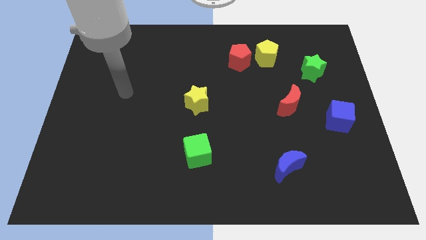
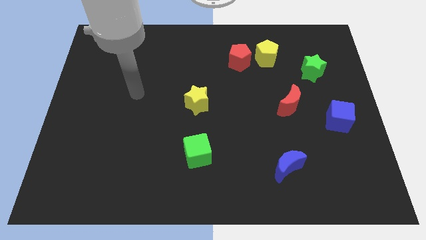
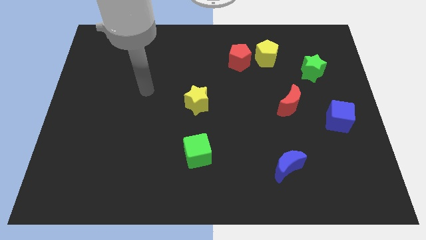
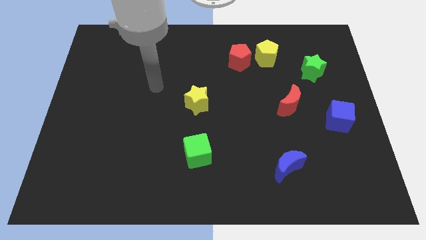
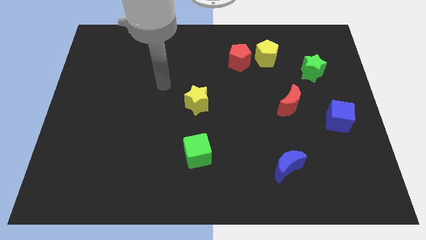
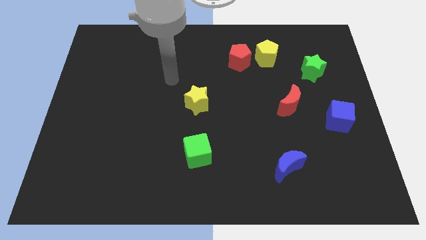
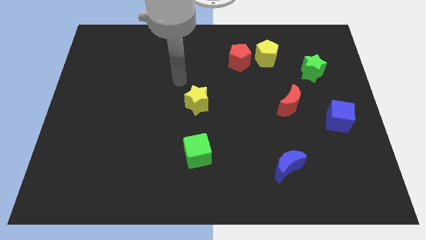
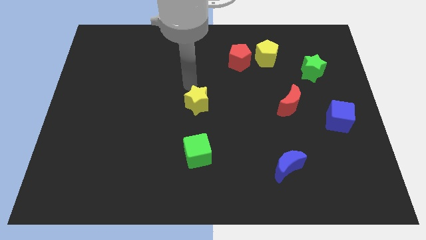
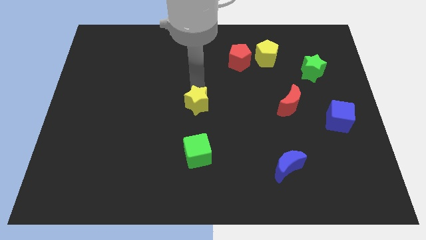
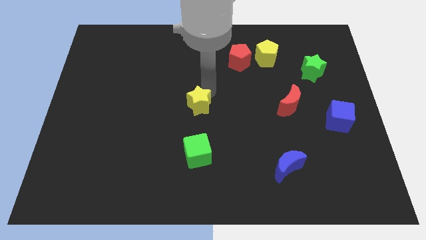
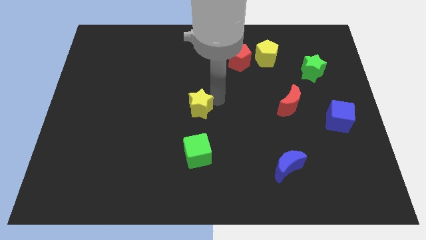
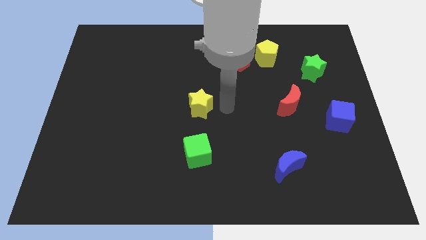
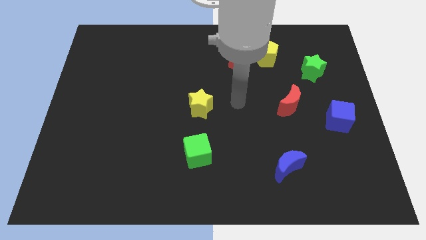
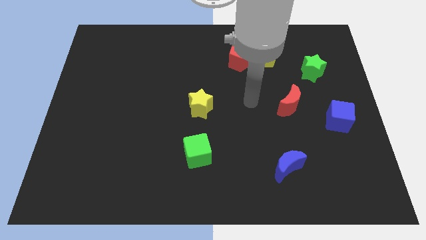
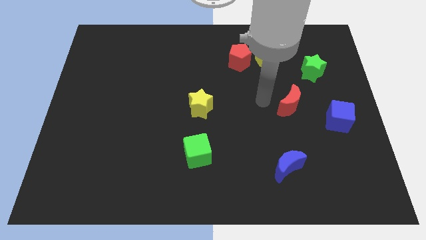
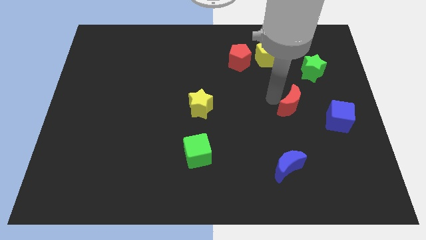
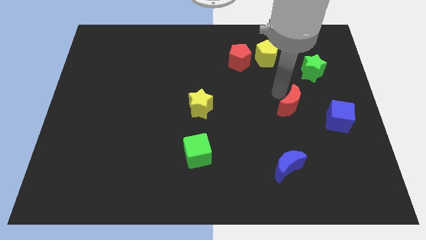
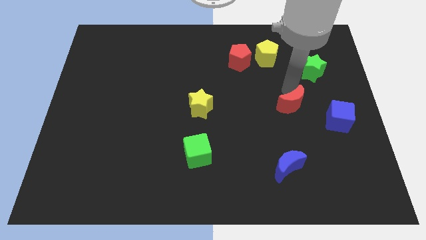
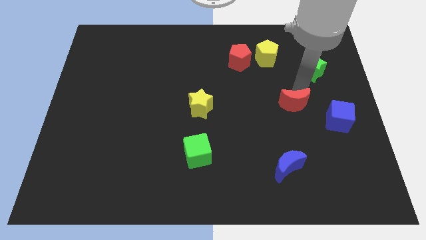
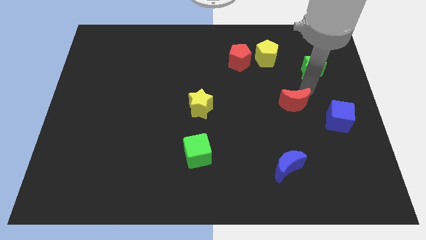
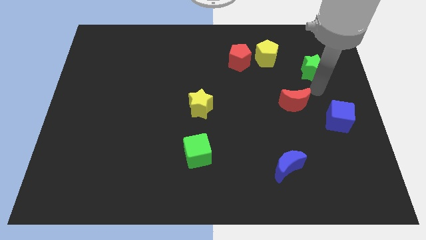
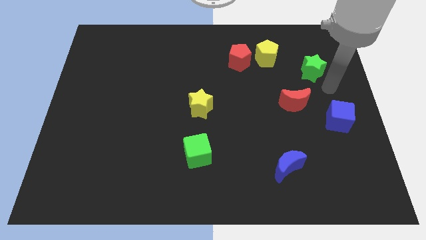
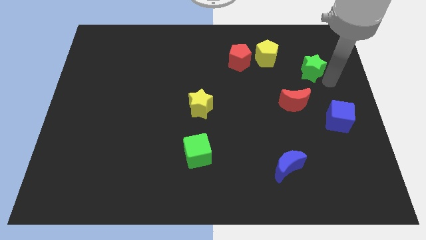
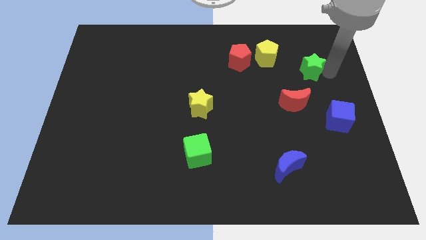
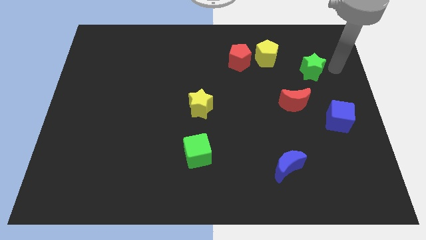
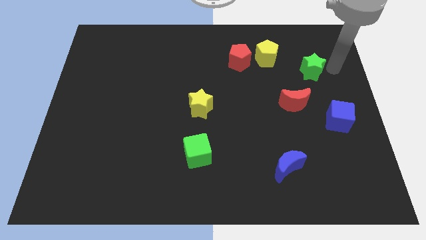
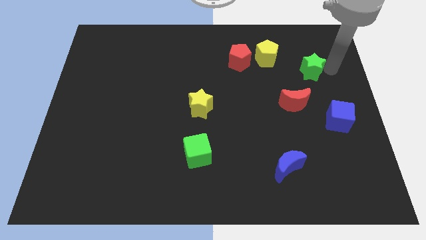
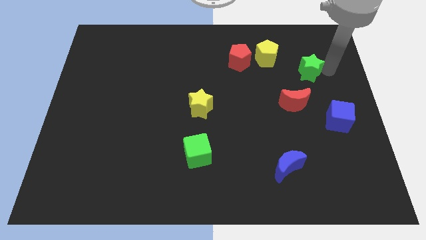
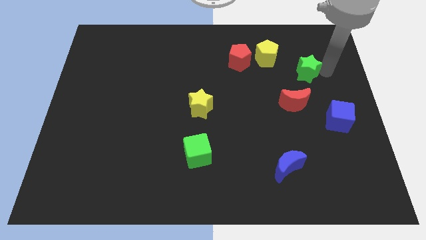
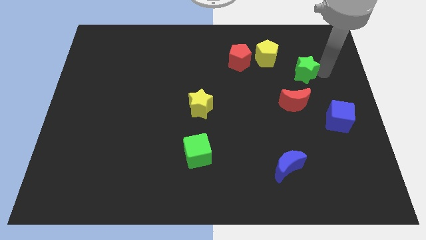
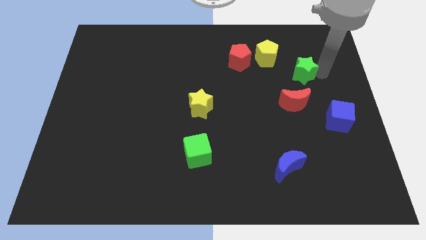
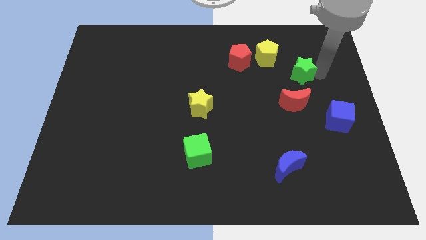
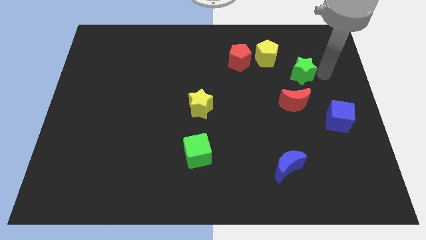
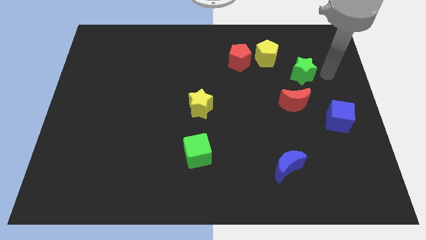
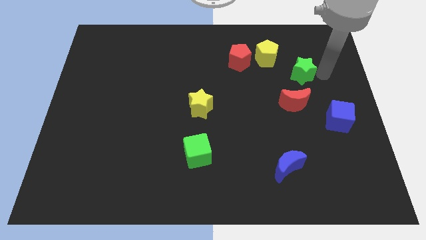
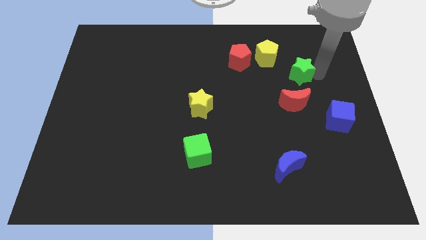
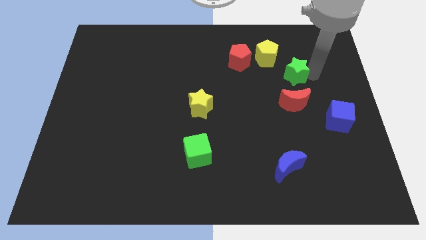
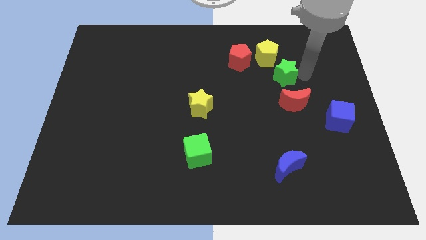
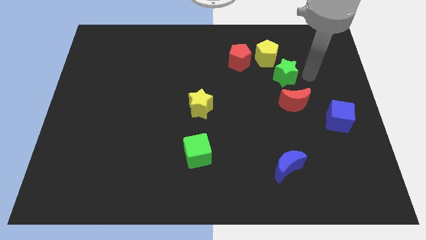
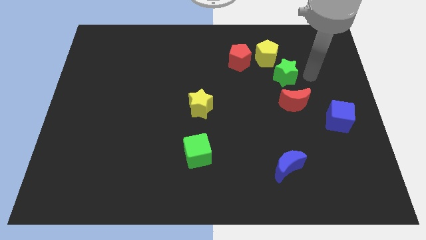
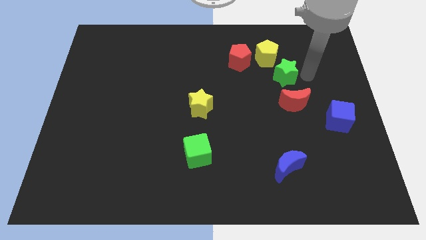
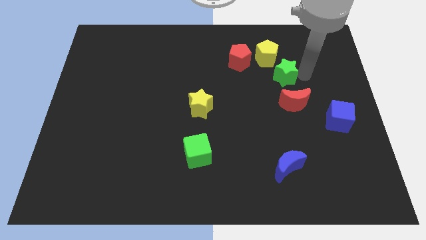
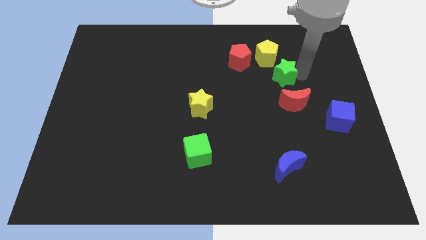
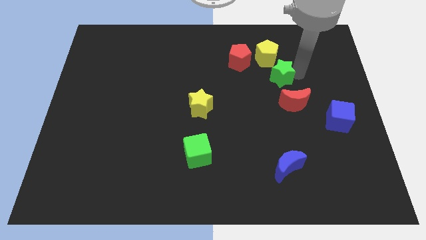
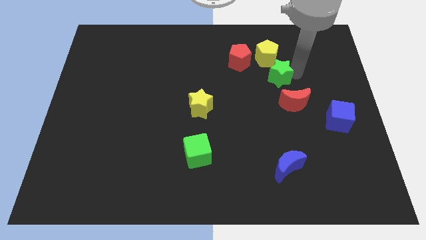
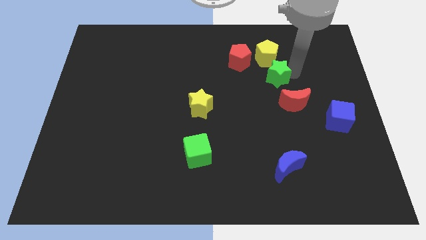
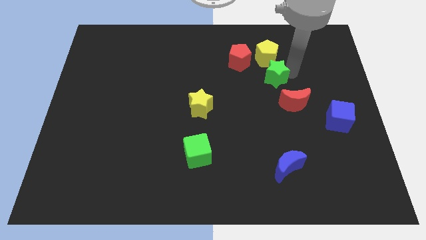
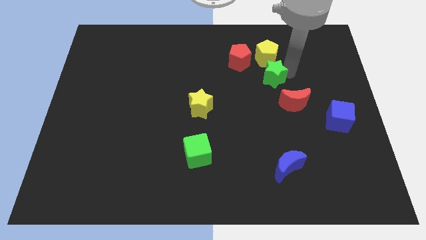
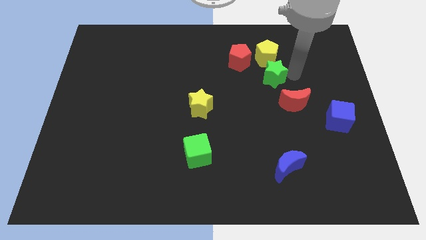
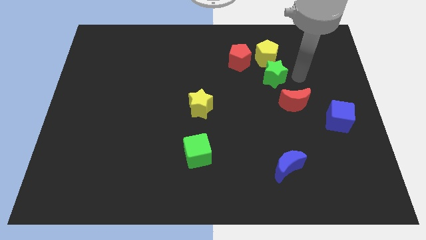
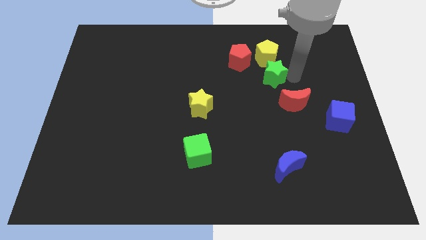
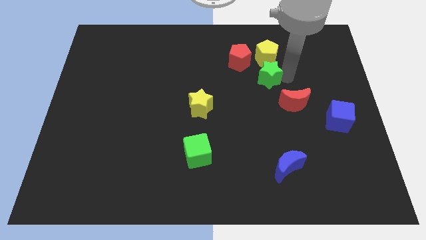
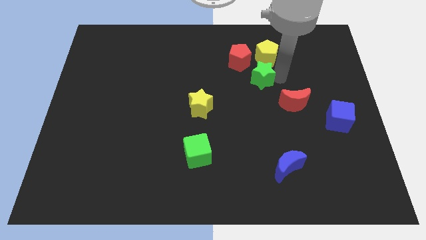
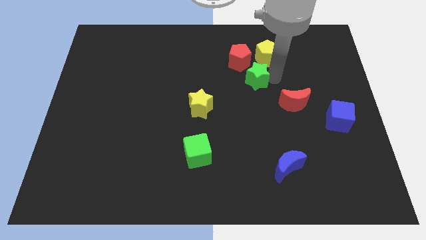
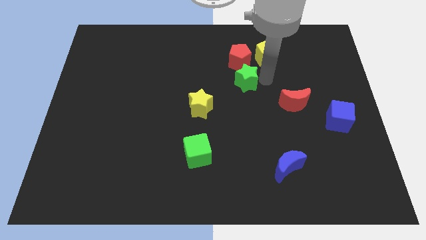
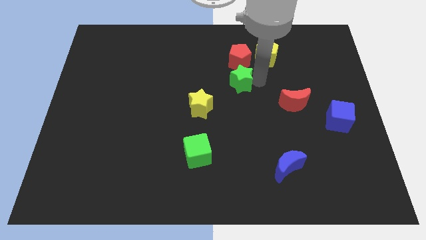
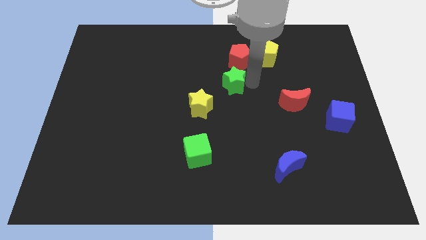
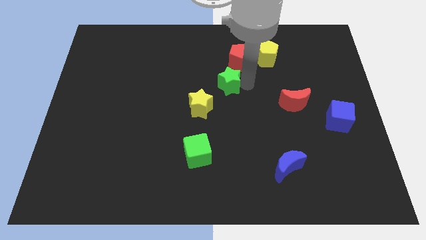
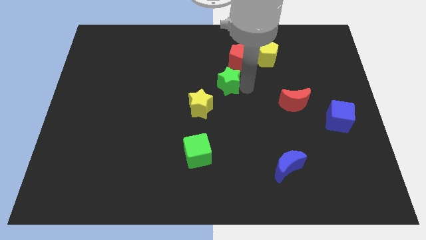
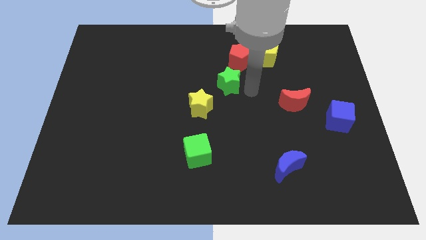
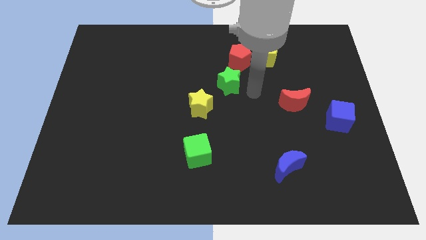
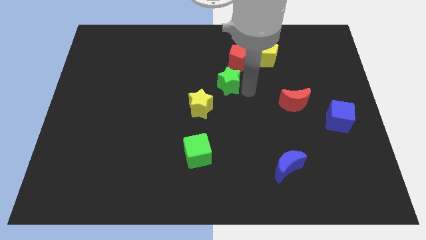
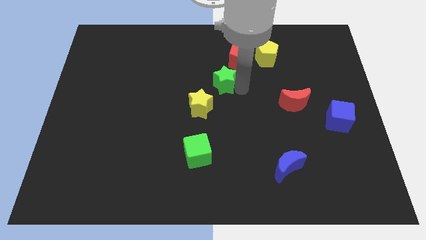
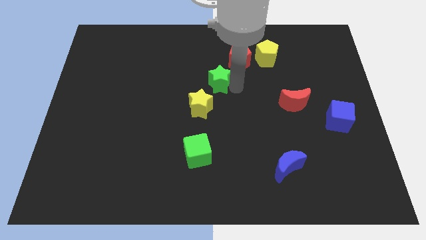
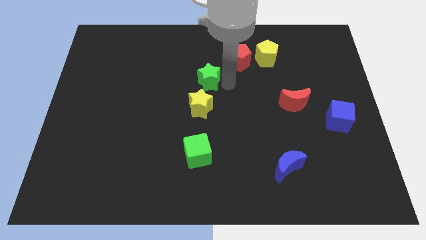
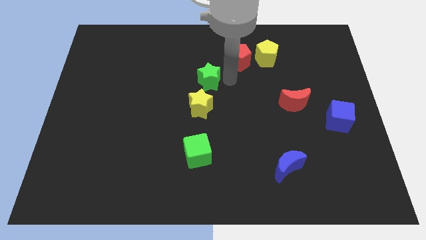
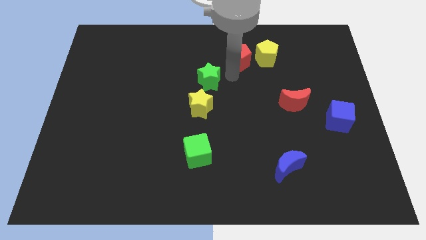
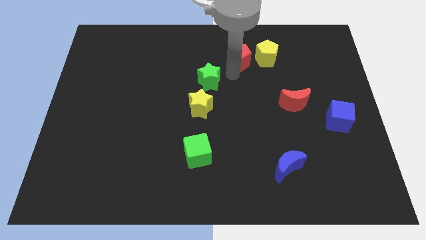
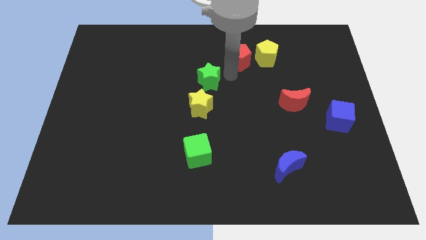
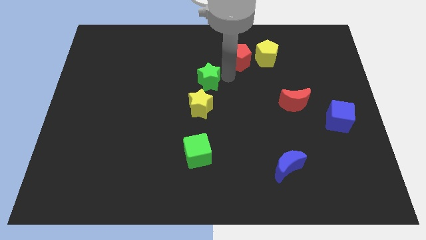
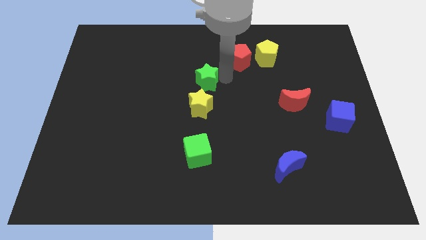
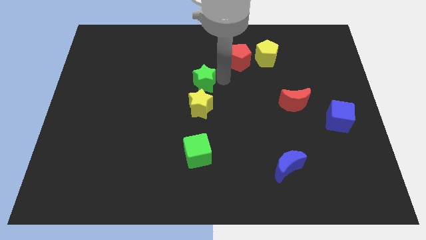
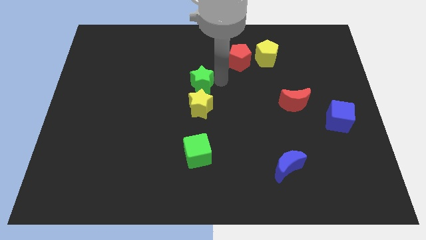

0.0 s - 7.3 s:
push the green star to the top left side of the yellow star

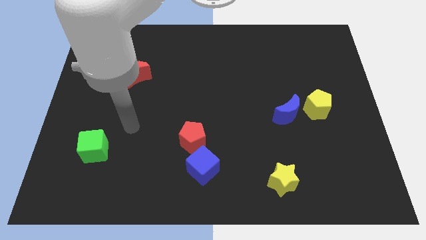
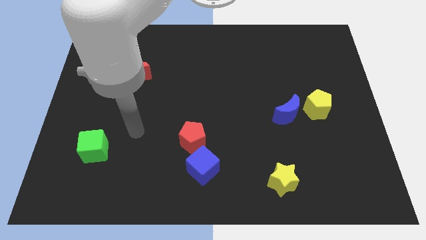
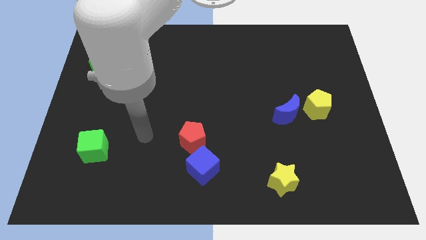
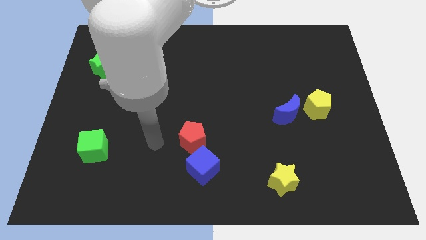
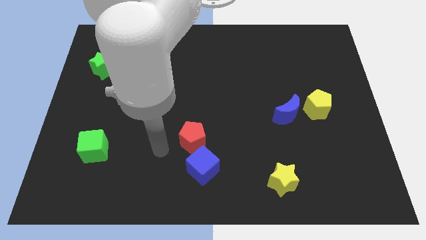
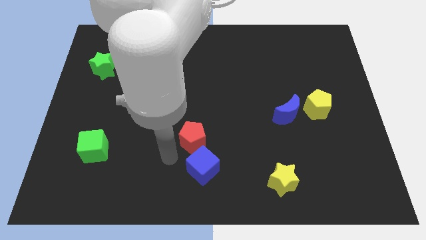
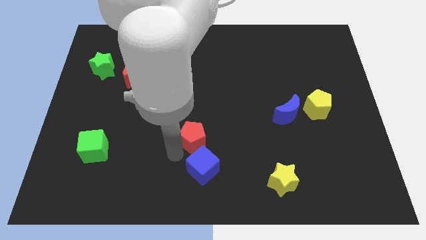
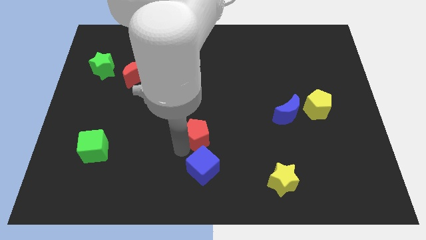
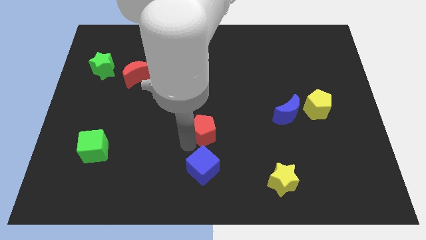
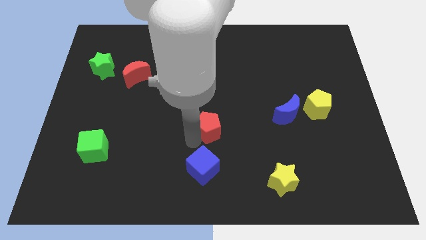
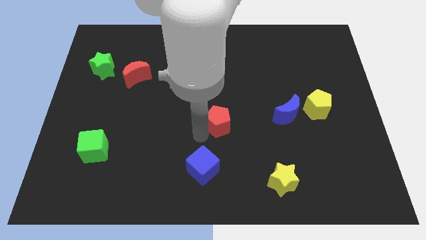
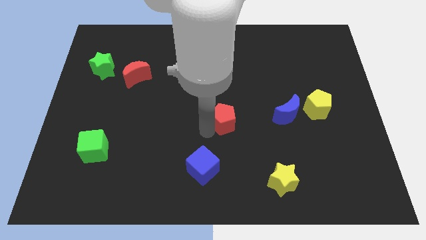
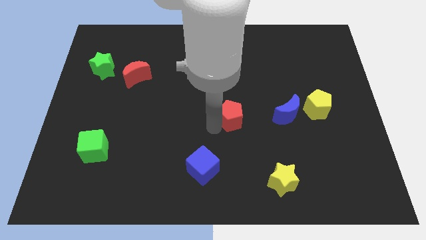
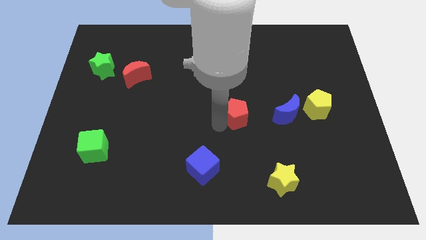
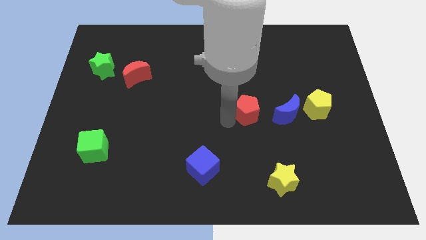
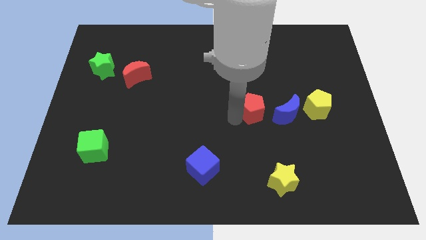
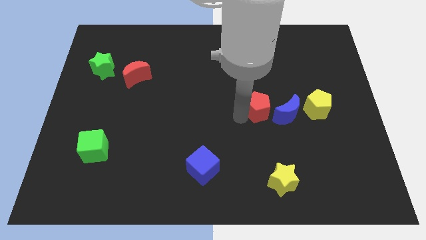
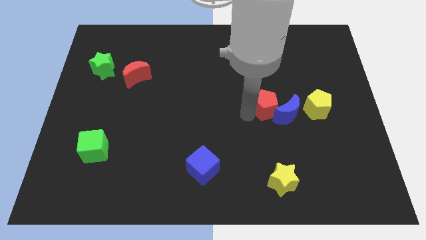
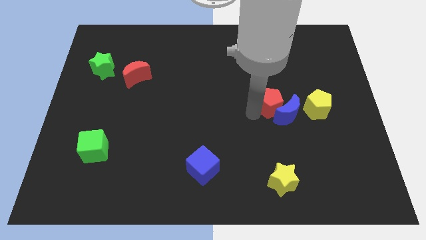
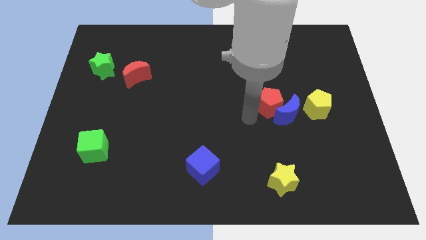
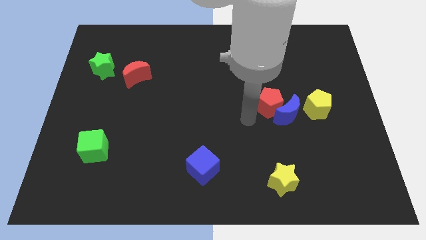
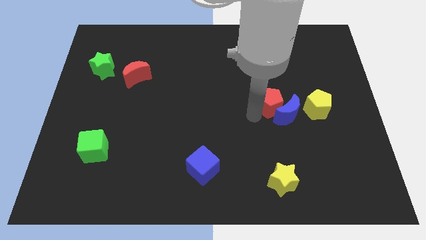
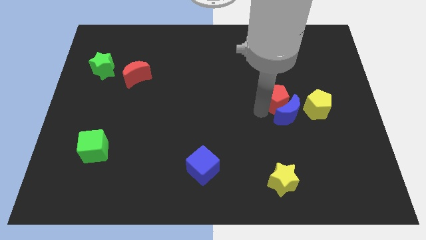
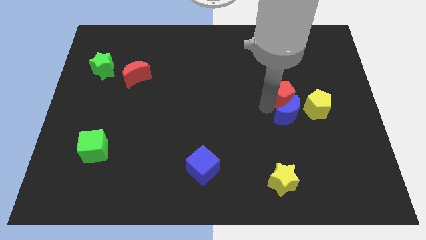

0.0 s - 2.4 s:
slide the red pentagon to the top left of the yellow pentagon
